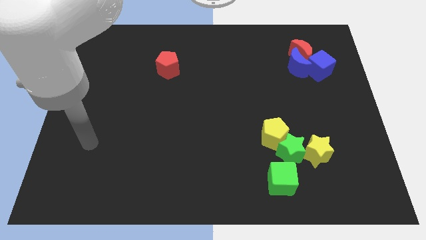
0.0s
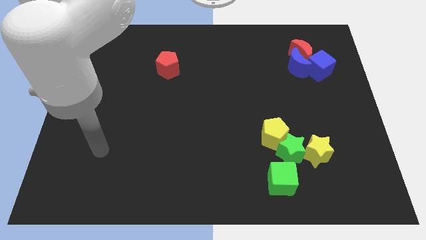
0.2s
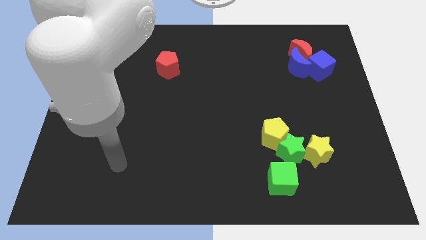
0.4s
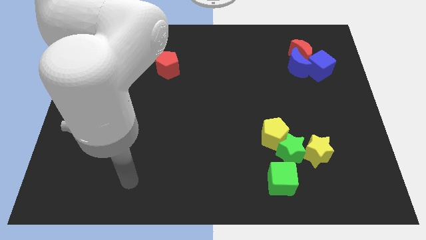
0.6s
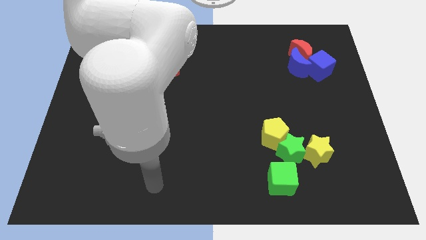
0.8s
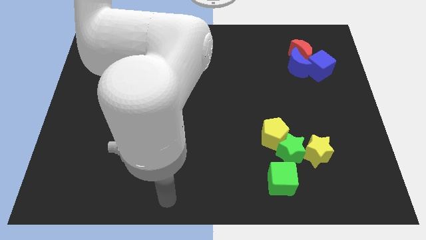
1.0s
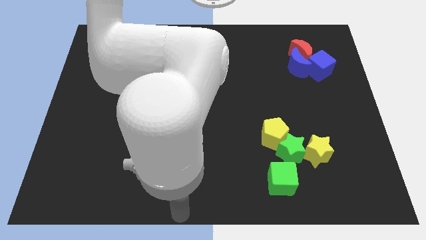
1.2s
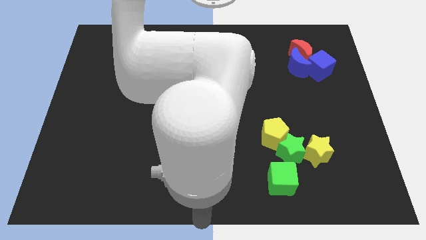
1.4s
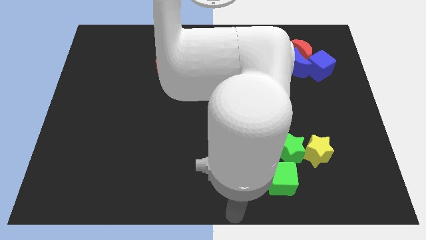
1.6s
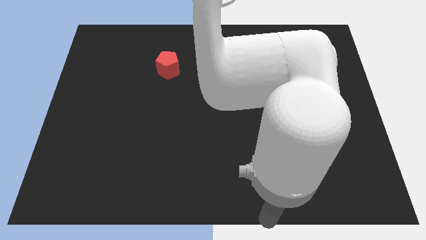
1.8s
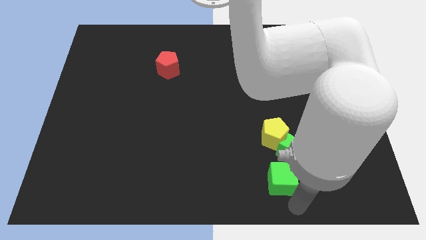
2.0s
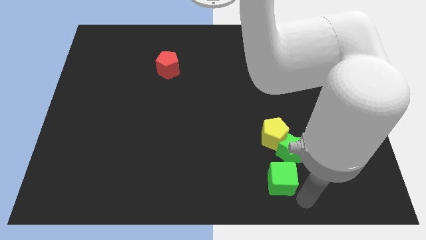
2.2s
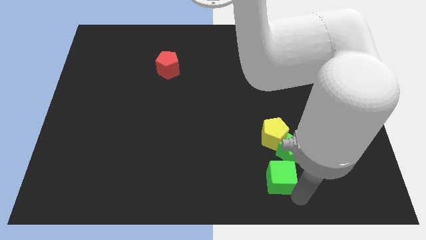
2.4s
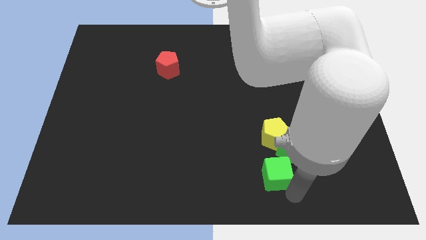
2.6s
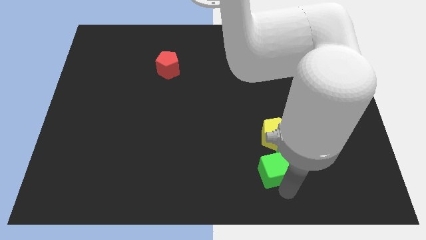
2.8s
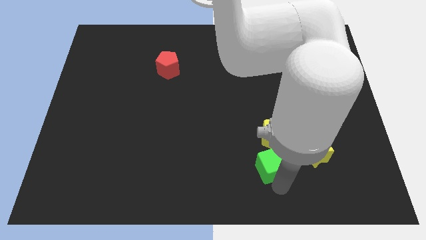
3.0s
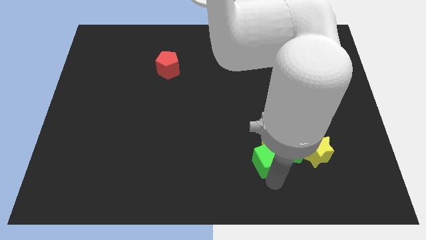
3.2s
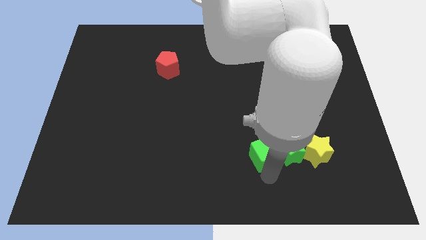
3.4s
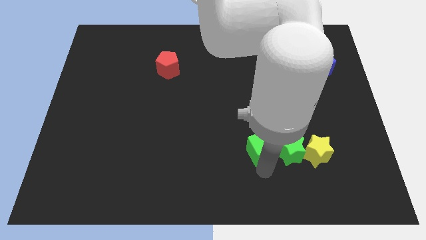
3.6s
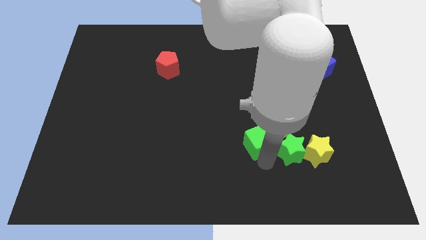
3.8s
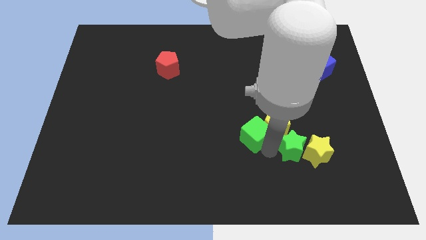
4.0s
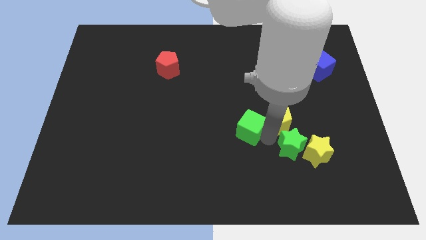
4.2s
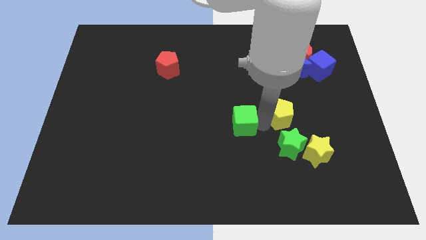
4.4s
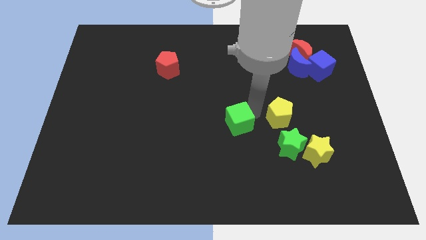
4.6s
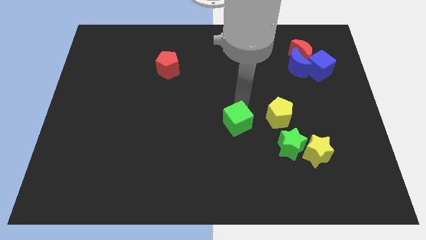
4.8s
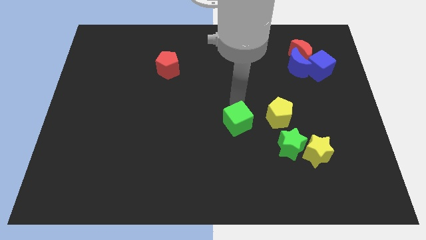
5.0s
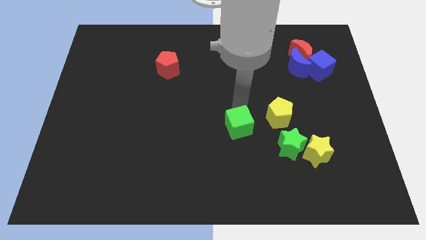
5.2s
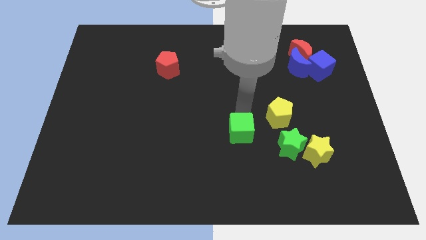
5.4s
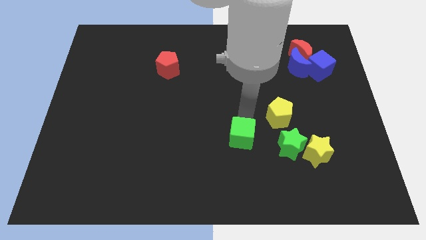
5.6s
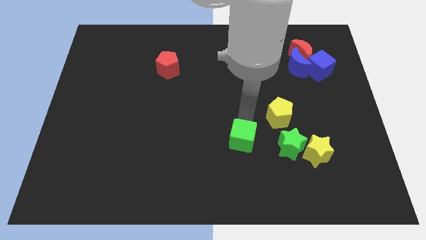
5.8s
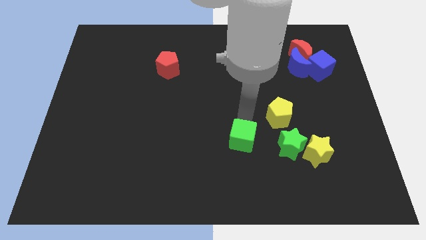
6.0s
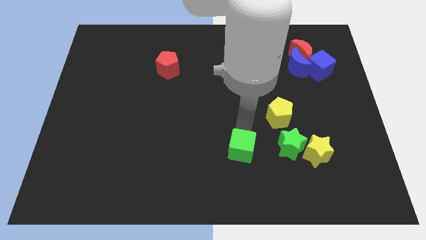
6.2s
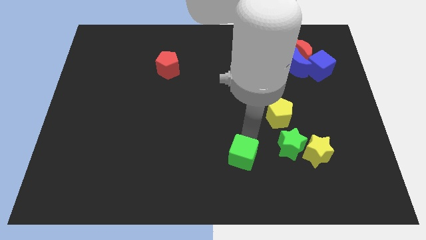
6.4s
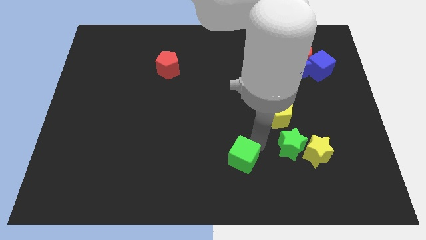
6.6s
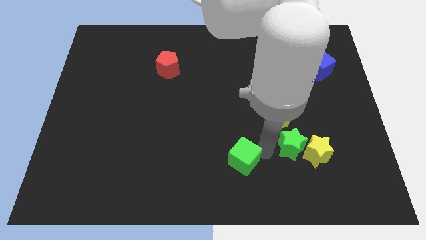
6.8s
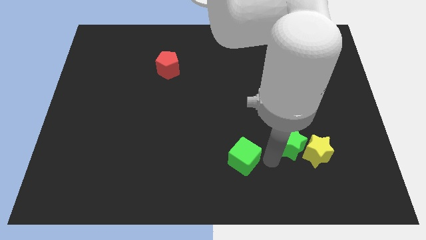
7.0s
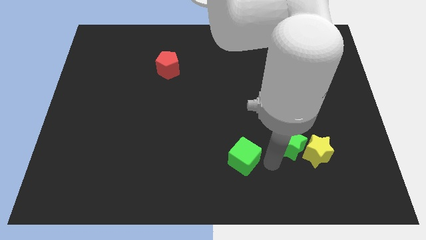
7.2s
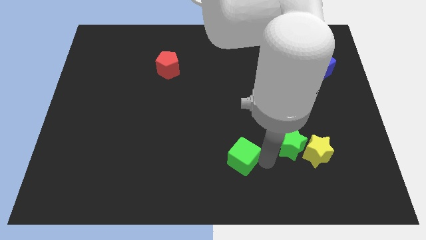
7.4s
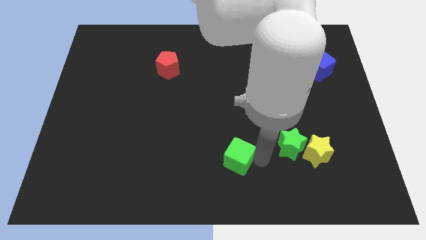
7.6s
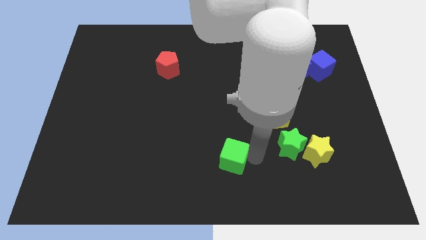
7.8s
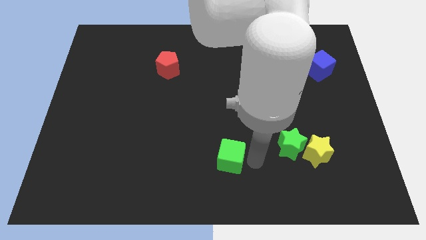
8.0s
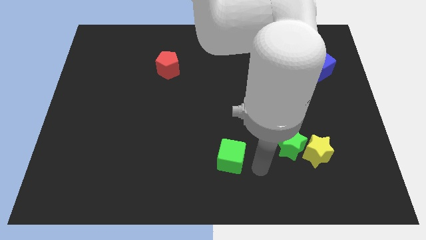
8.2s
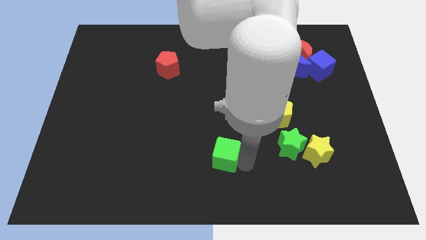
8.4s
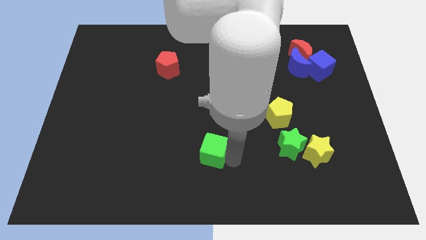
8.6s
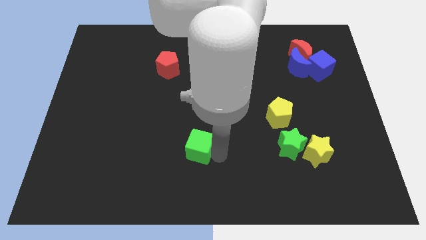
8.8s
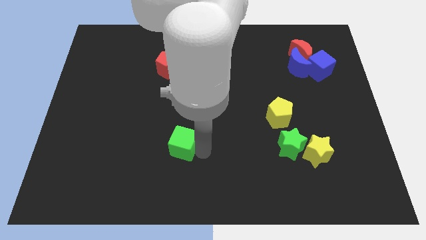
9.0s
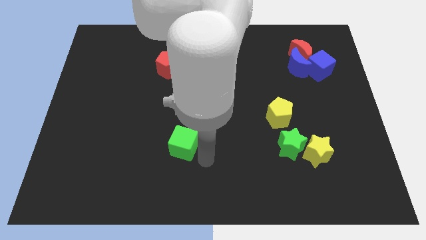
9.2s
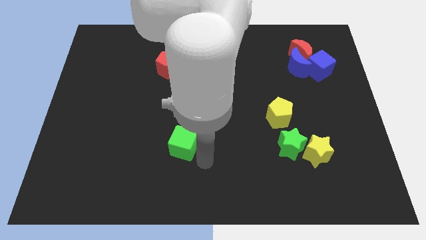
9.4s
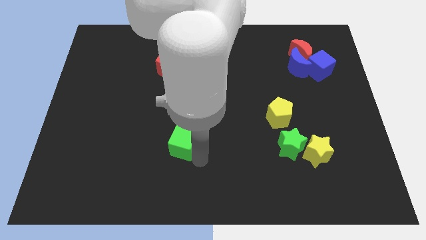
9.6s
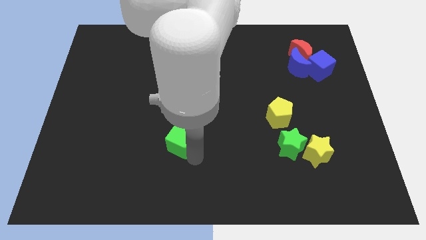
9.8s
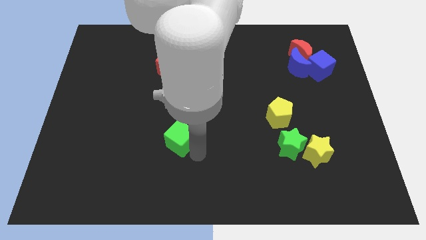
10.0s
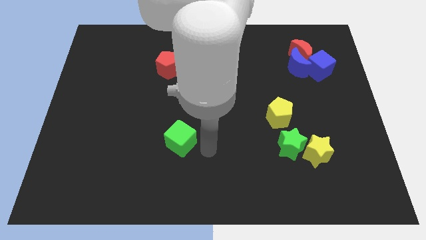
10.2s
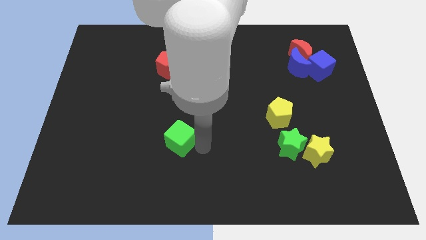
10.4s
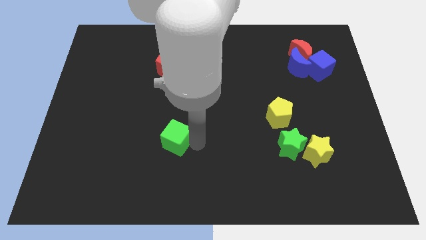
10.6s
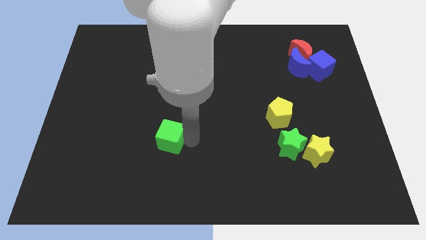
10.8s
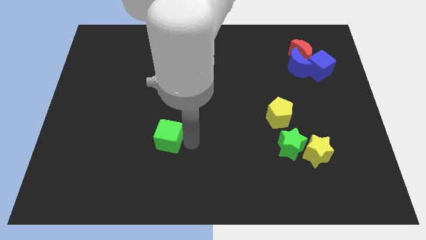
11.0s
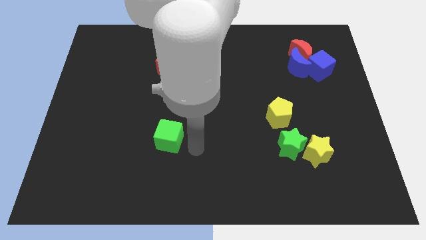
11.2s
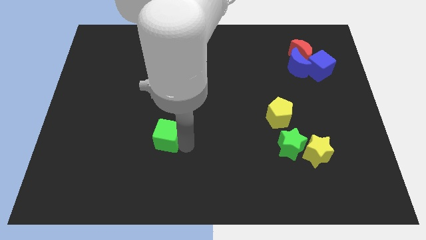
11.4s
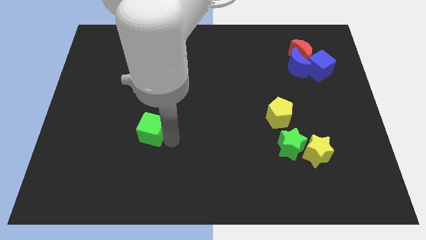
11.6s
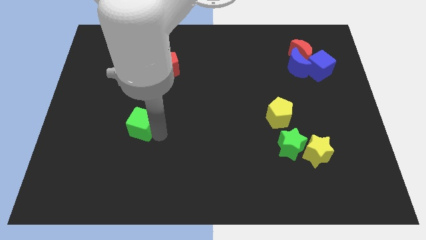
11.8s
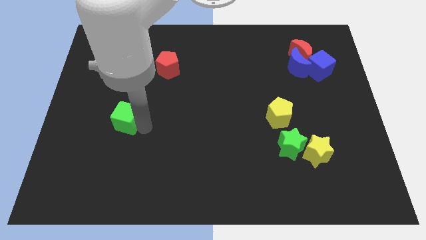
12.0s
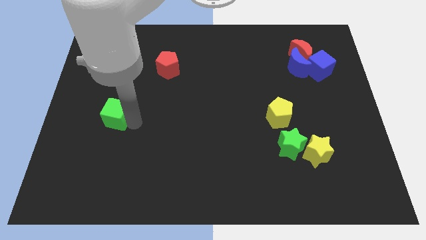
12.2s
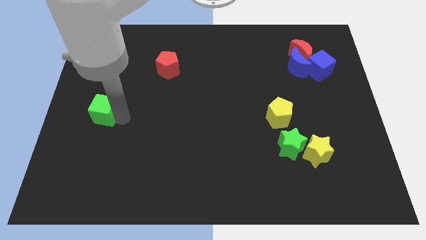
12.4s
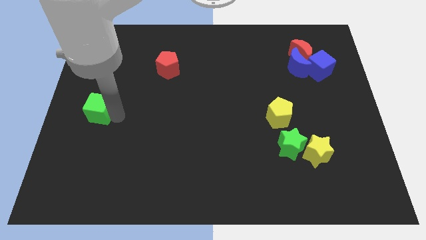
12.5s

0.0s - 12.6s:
slide the green cube to the left side
